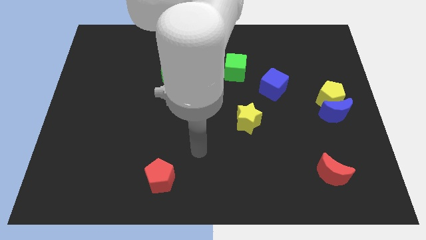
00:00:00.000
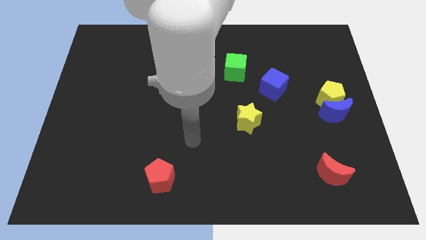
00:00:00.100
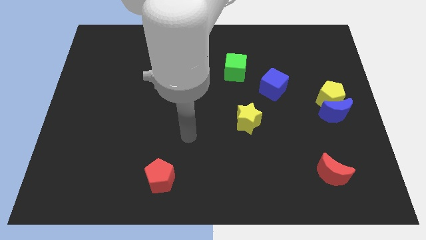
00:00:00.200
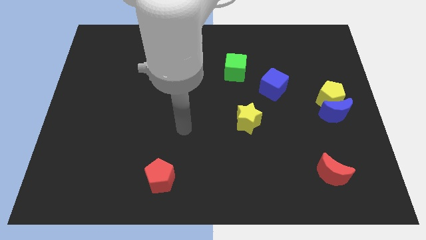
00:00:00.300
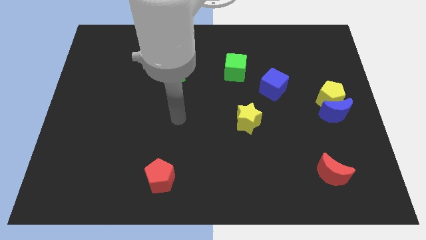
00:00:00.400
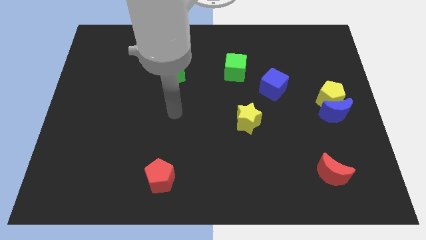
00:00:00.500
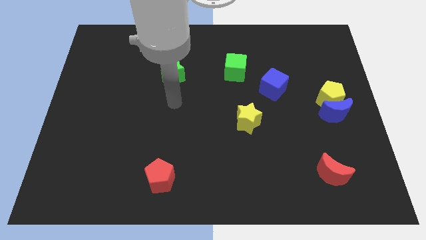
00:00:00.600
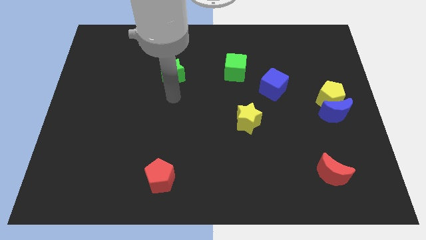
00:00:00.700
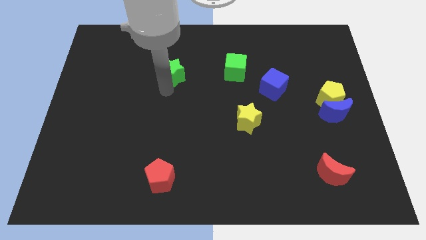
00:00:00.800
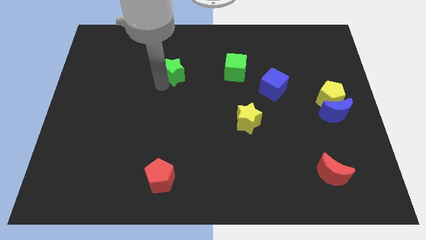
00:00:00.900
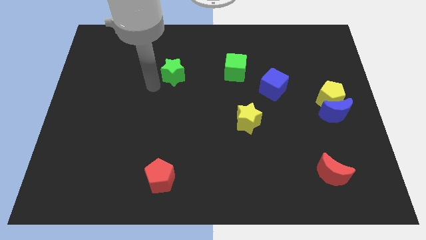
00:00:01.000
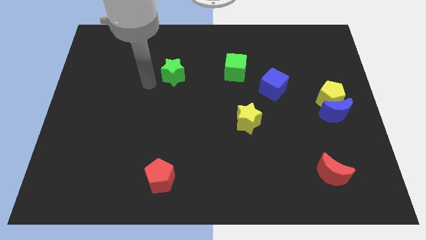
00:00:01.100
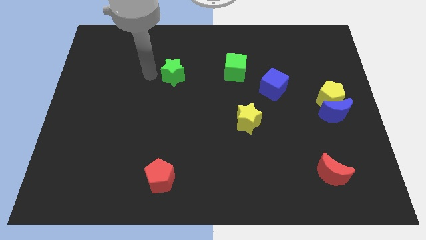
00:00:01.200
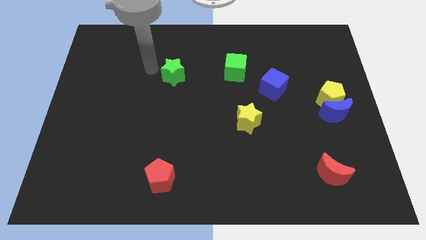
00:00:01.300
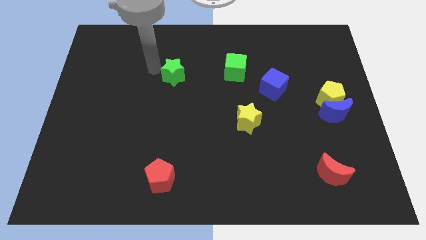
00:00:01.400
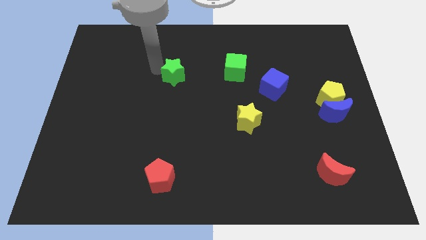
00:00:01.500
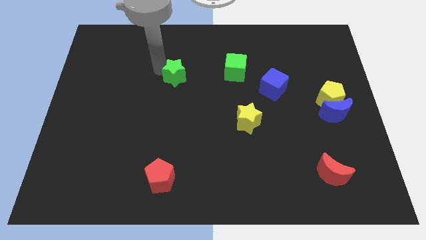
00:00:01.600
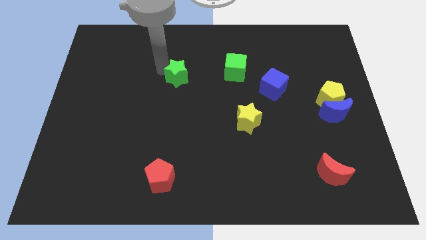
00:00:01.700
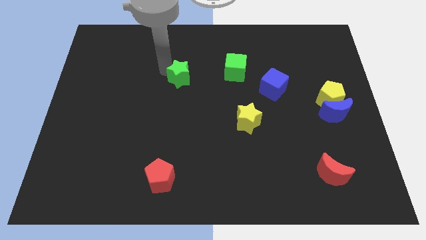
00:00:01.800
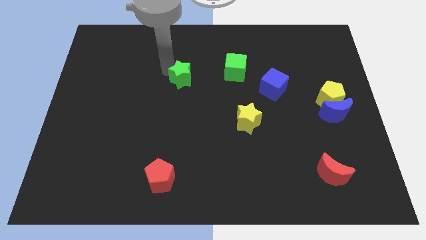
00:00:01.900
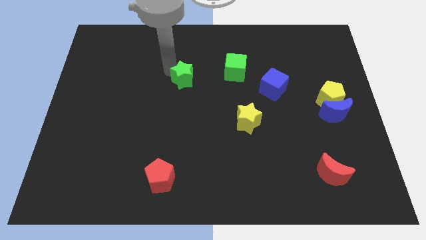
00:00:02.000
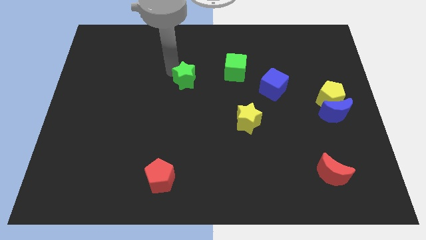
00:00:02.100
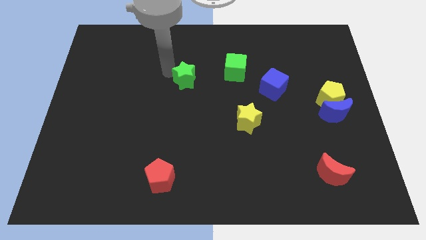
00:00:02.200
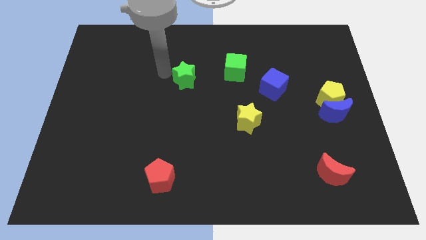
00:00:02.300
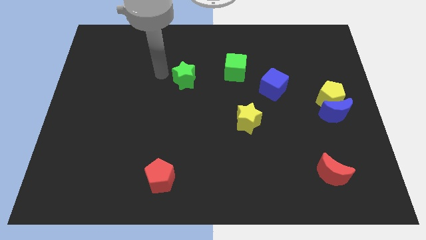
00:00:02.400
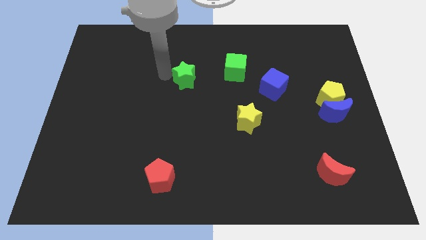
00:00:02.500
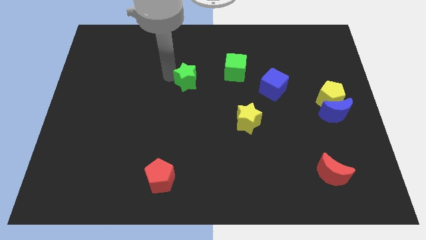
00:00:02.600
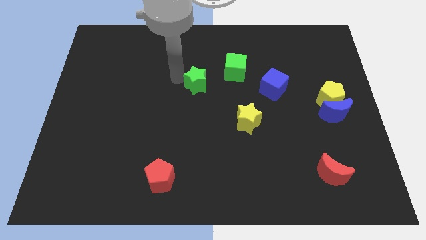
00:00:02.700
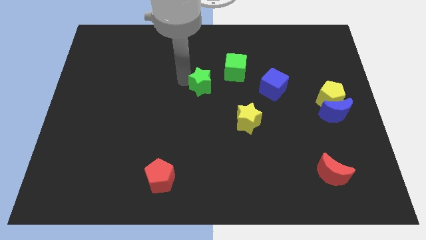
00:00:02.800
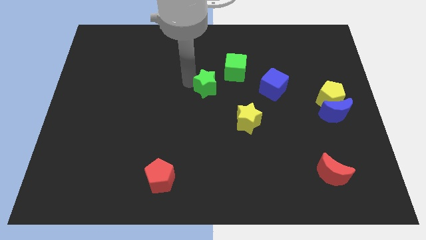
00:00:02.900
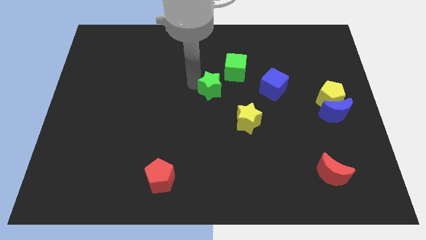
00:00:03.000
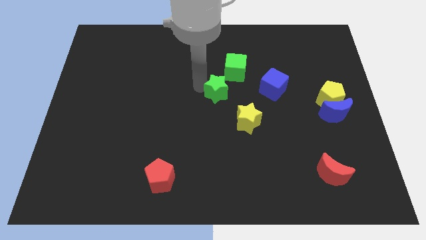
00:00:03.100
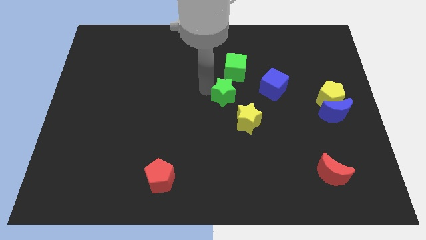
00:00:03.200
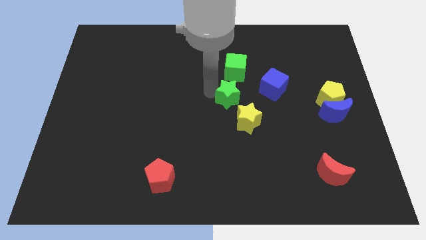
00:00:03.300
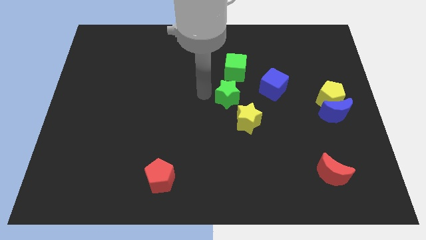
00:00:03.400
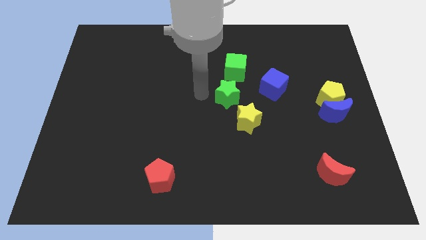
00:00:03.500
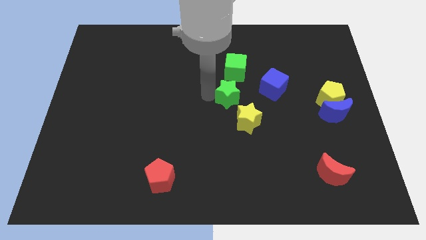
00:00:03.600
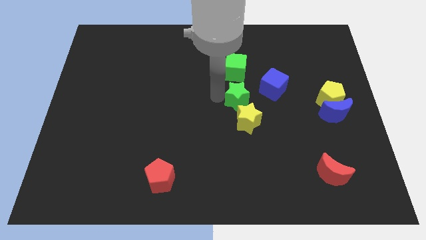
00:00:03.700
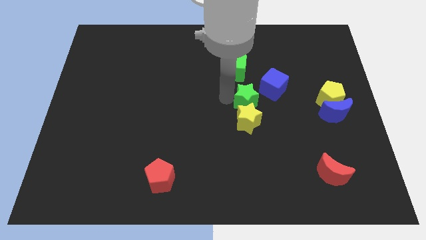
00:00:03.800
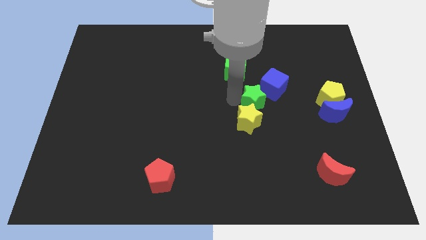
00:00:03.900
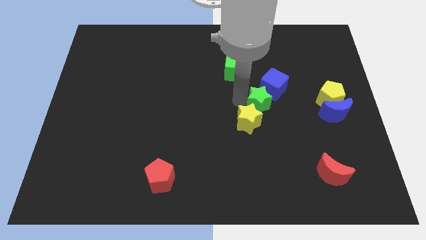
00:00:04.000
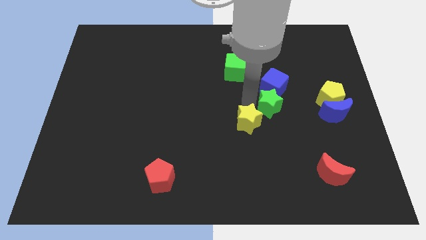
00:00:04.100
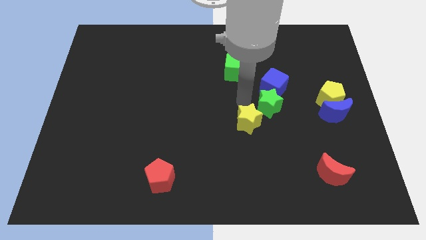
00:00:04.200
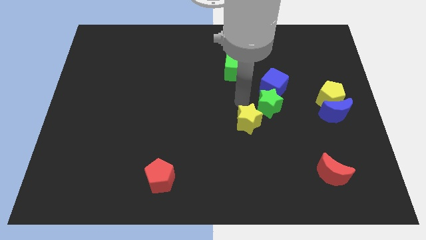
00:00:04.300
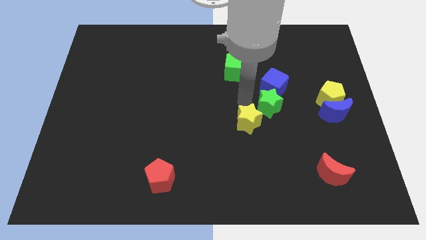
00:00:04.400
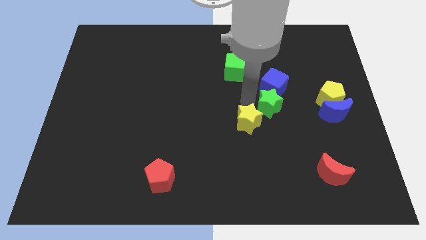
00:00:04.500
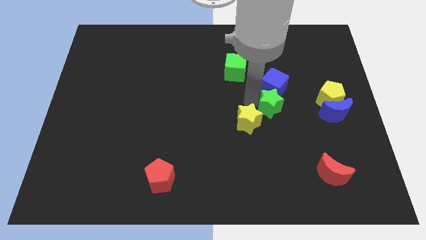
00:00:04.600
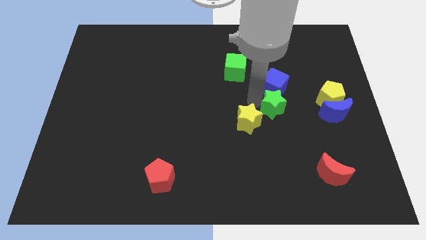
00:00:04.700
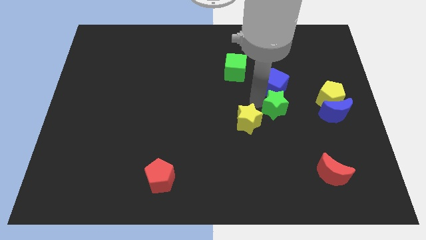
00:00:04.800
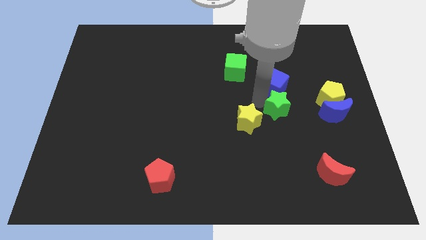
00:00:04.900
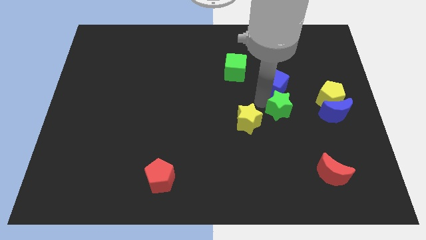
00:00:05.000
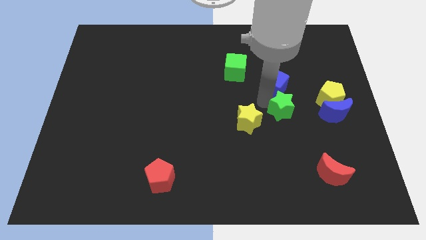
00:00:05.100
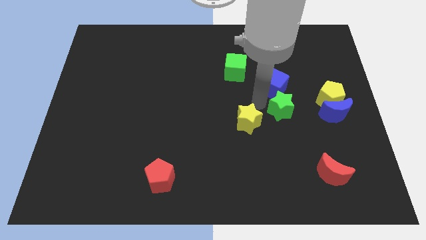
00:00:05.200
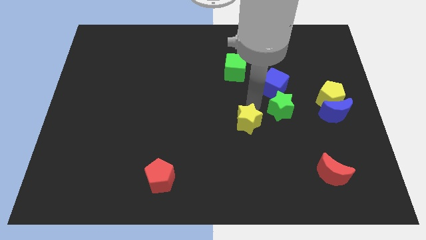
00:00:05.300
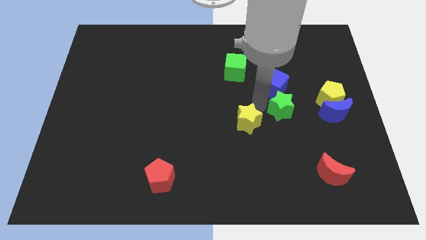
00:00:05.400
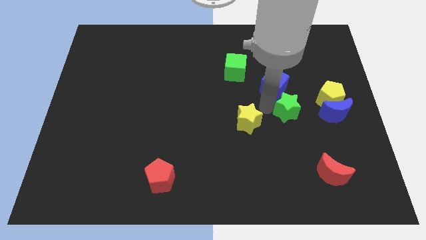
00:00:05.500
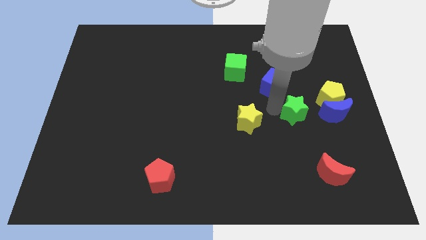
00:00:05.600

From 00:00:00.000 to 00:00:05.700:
put the green star to the bottom left side of the yellow pentagon

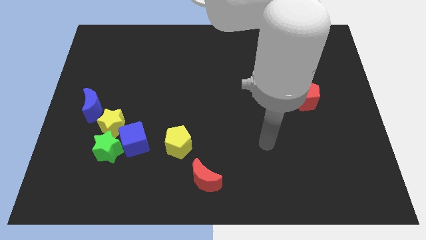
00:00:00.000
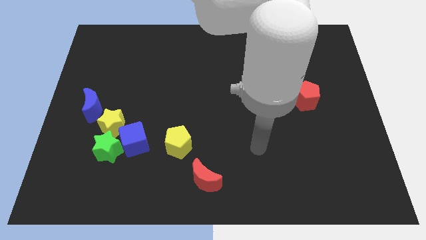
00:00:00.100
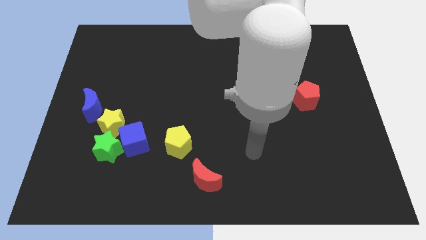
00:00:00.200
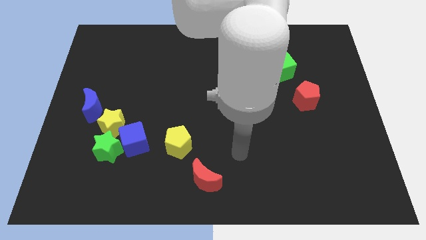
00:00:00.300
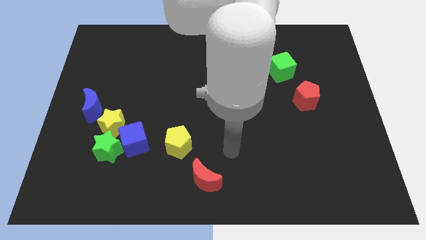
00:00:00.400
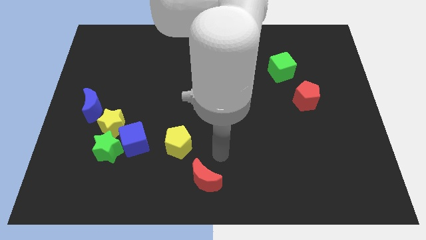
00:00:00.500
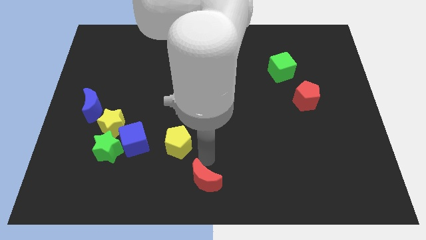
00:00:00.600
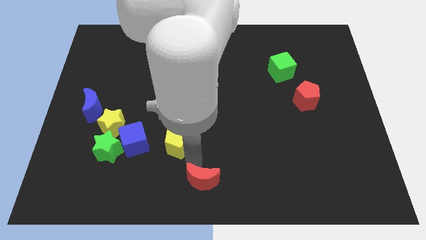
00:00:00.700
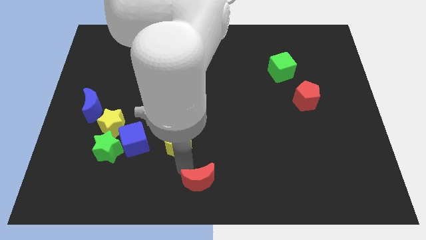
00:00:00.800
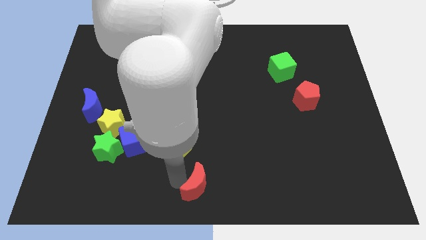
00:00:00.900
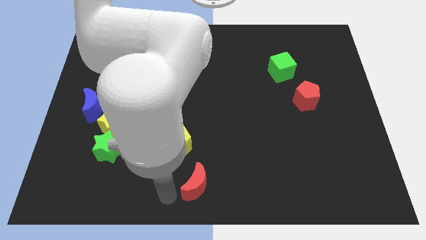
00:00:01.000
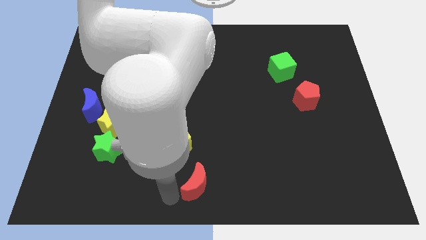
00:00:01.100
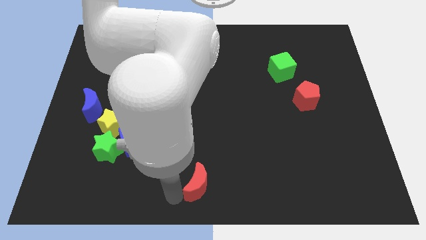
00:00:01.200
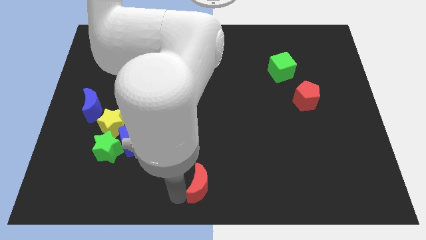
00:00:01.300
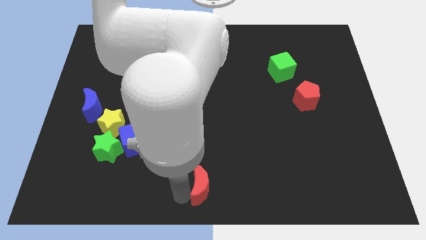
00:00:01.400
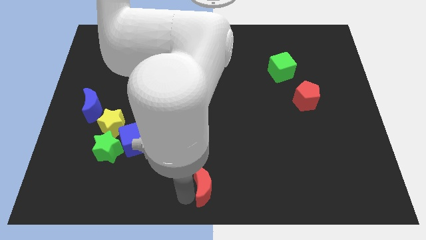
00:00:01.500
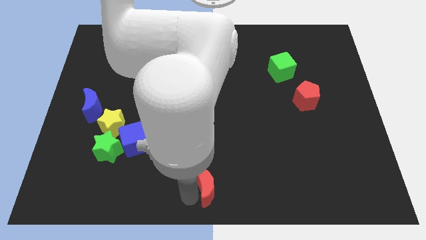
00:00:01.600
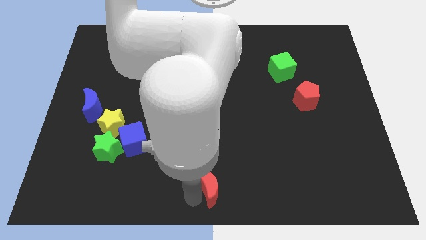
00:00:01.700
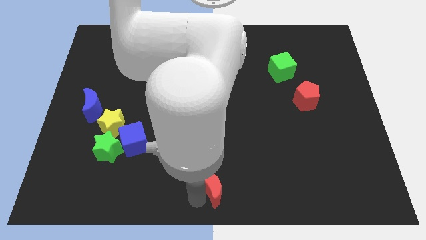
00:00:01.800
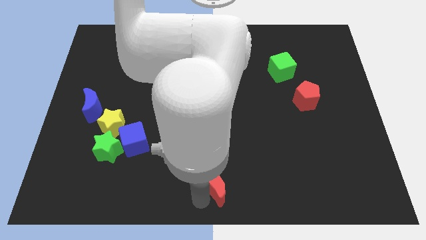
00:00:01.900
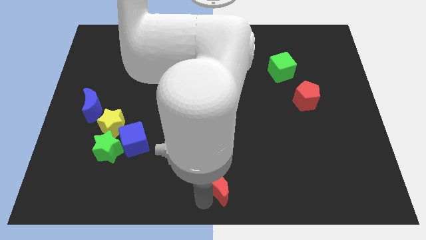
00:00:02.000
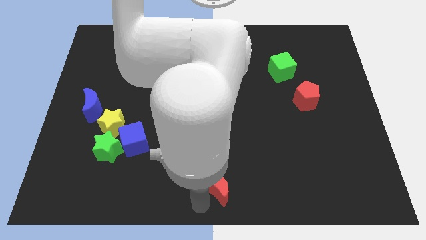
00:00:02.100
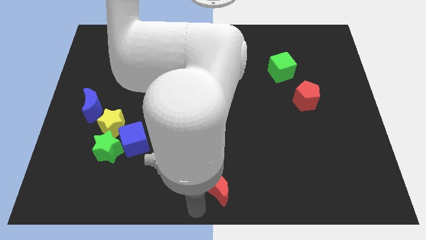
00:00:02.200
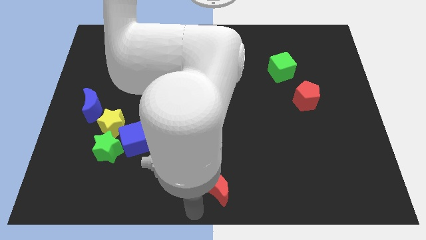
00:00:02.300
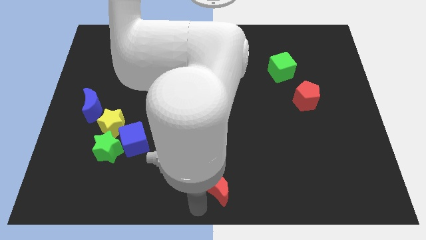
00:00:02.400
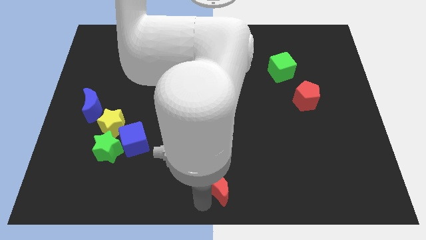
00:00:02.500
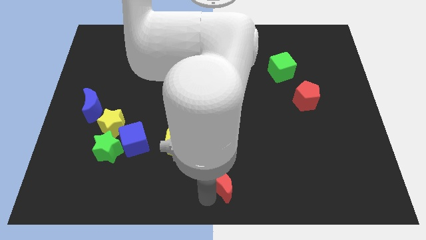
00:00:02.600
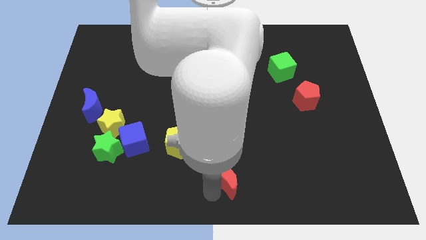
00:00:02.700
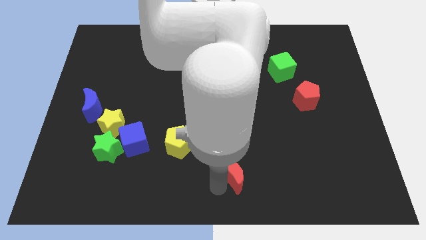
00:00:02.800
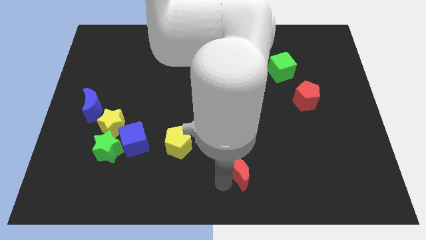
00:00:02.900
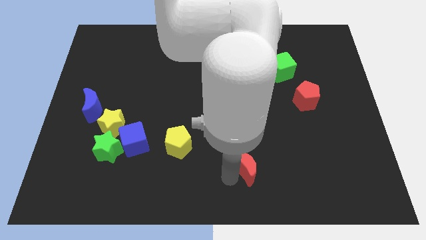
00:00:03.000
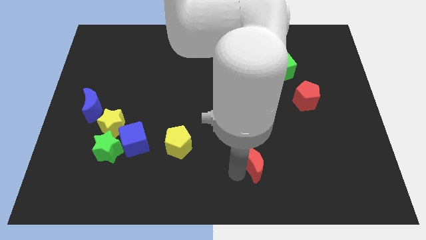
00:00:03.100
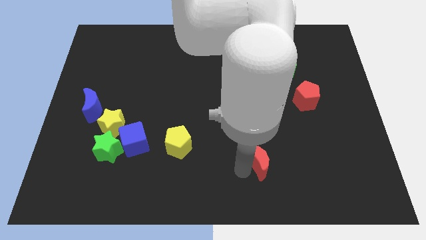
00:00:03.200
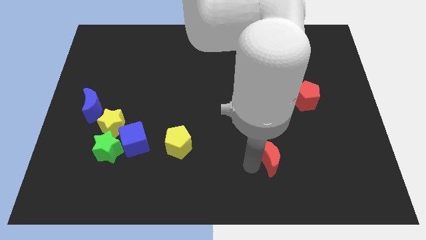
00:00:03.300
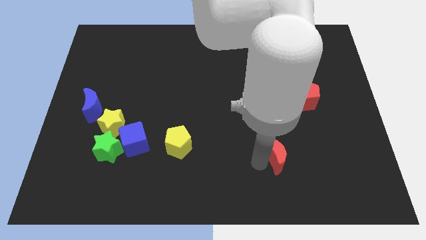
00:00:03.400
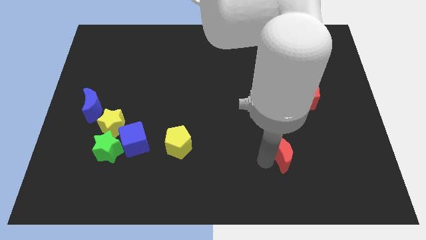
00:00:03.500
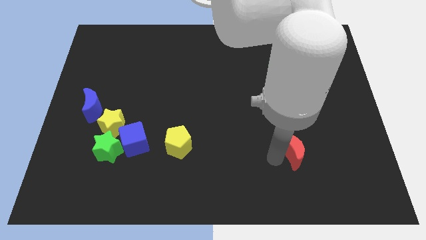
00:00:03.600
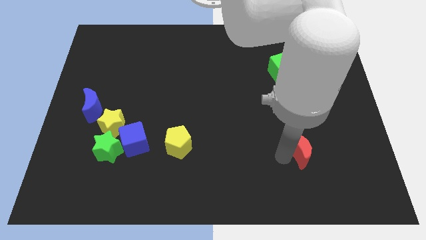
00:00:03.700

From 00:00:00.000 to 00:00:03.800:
slide the red moon to the bottom of the red pentagon
